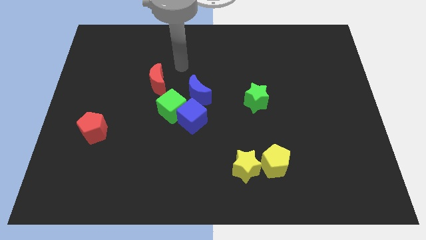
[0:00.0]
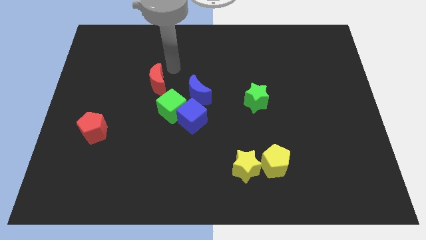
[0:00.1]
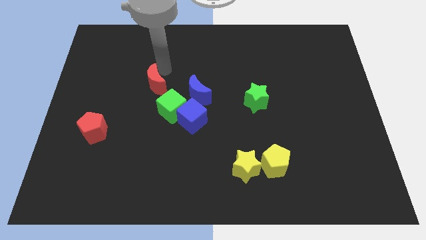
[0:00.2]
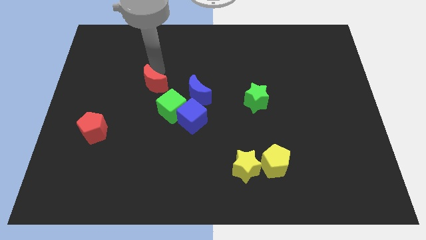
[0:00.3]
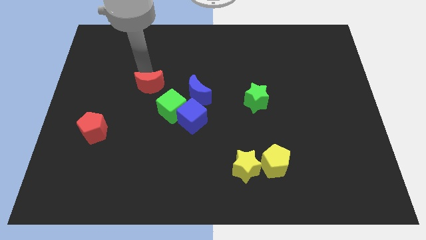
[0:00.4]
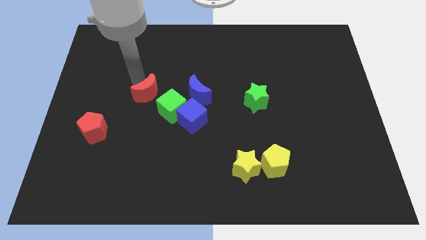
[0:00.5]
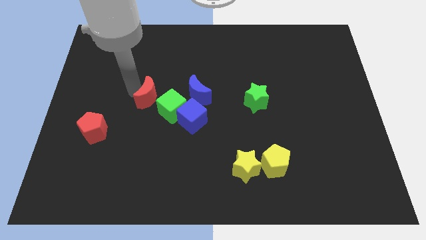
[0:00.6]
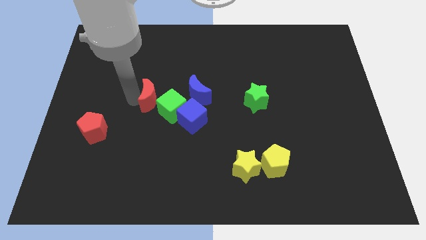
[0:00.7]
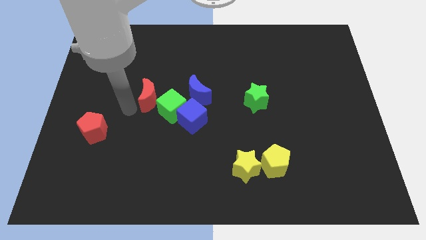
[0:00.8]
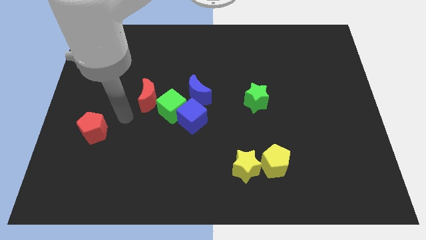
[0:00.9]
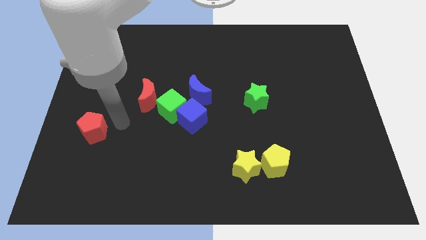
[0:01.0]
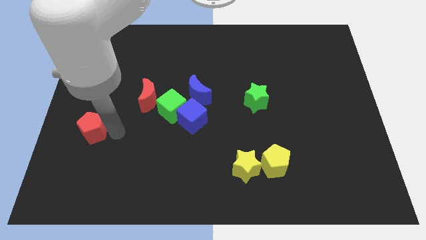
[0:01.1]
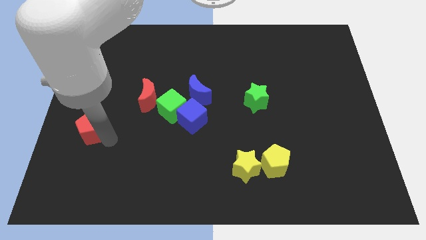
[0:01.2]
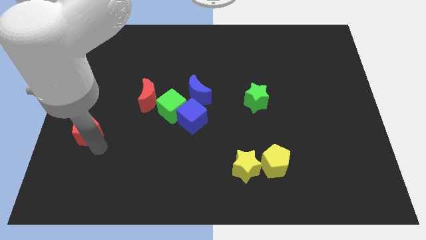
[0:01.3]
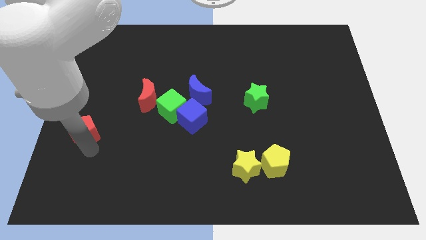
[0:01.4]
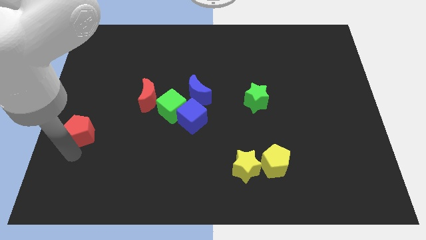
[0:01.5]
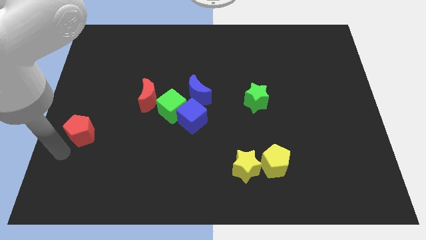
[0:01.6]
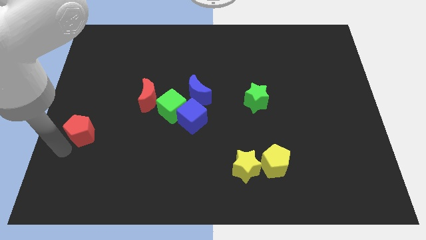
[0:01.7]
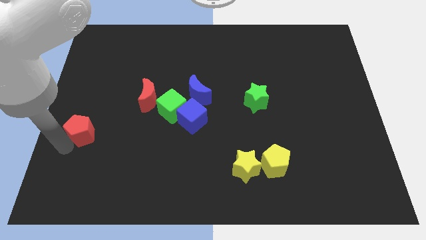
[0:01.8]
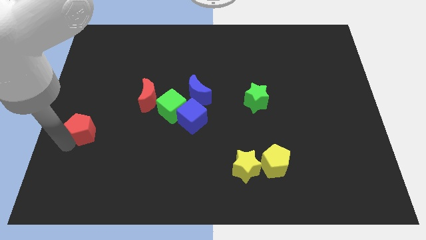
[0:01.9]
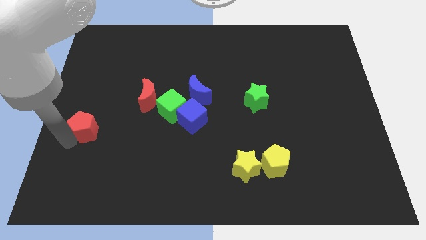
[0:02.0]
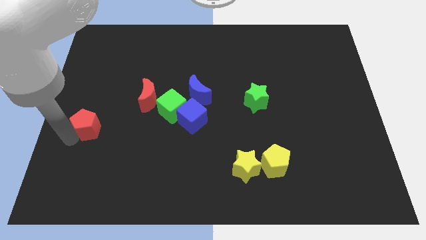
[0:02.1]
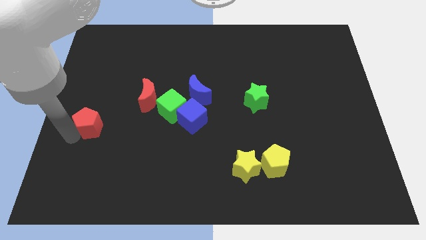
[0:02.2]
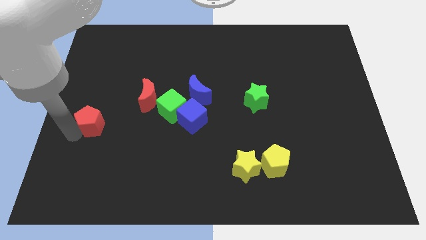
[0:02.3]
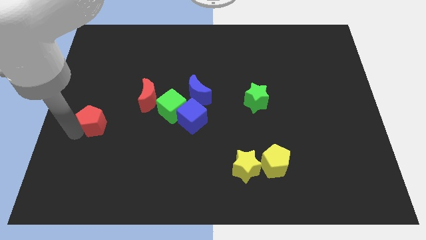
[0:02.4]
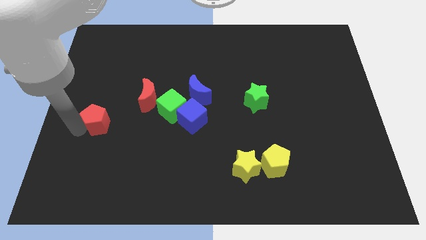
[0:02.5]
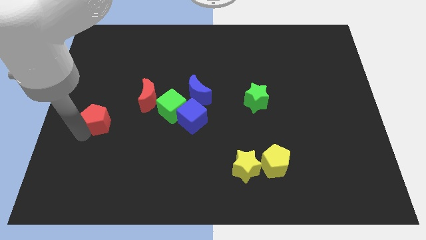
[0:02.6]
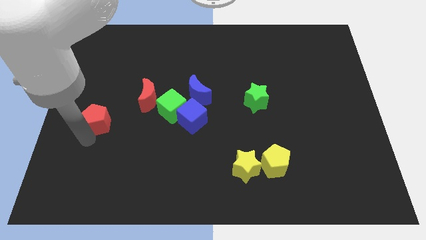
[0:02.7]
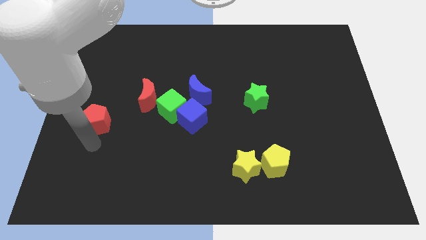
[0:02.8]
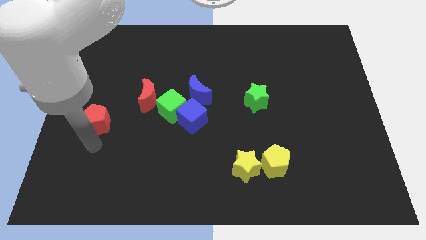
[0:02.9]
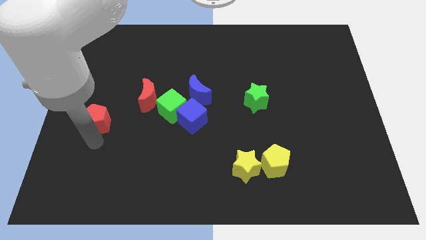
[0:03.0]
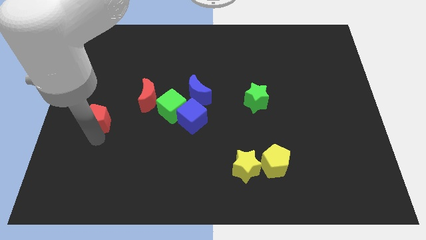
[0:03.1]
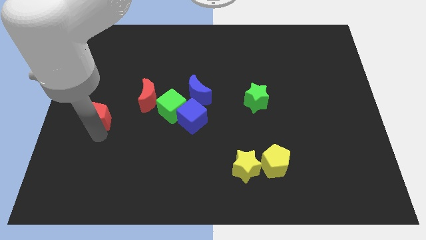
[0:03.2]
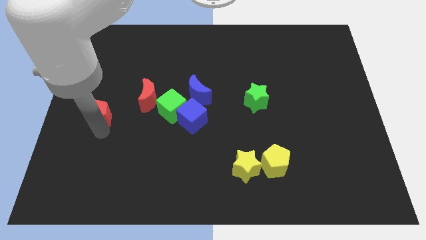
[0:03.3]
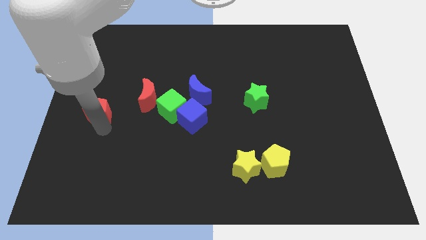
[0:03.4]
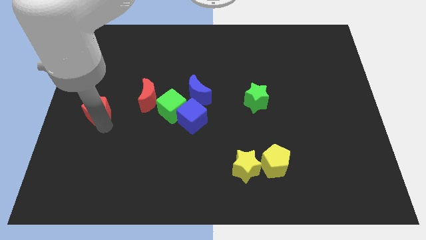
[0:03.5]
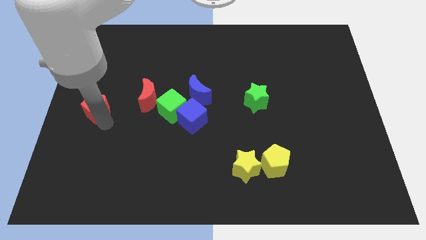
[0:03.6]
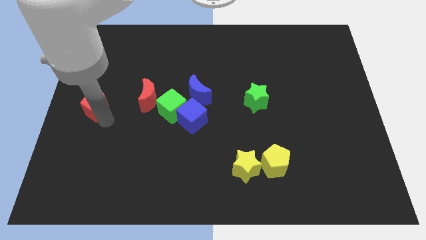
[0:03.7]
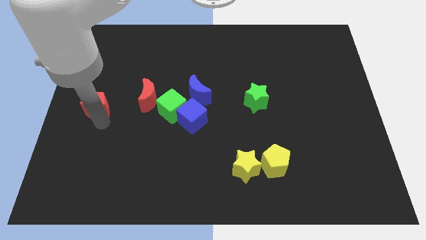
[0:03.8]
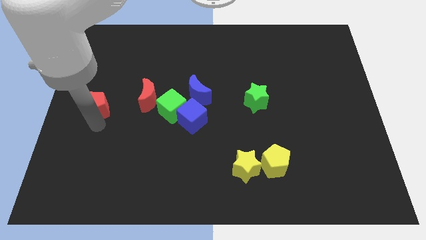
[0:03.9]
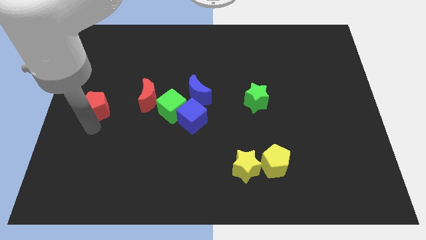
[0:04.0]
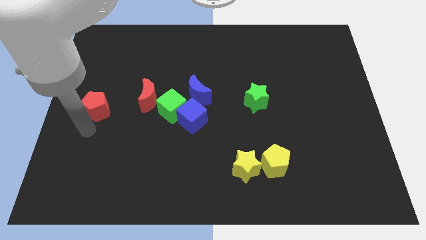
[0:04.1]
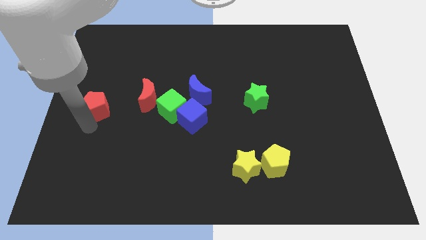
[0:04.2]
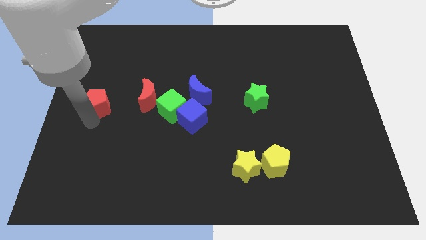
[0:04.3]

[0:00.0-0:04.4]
slide the red pentagon upwards somewhat

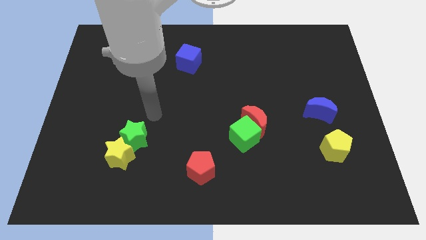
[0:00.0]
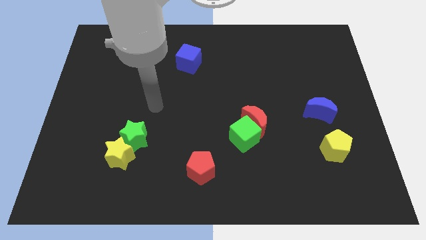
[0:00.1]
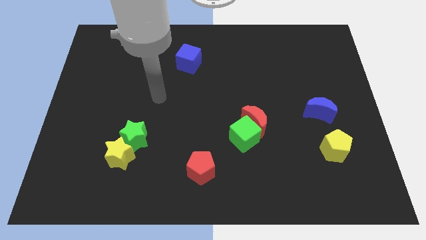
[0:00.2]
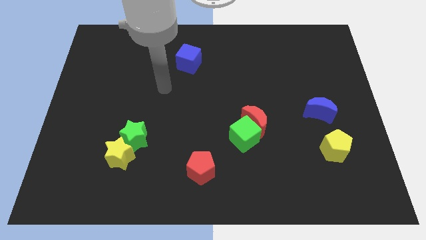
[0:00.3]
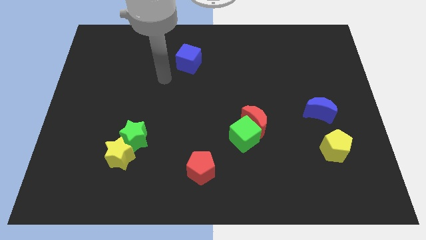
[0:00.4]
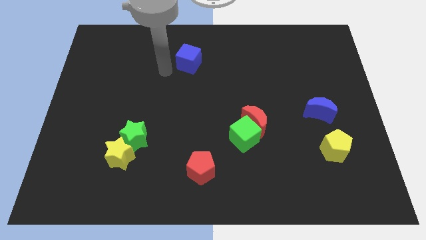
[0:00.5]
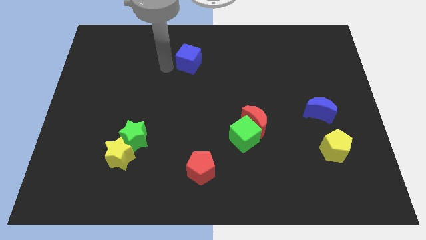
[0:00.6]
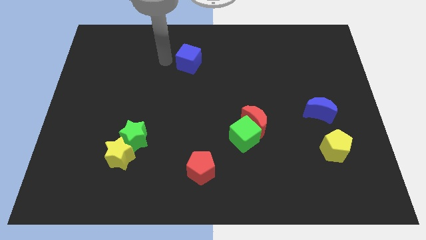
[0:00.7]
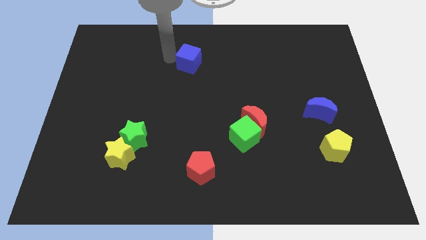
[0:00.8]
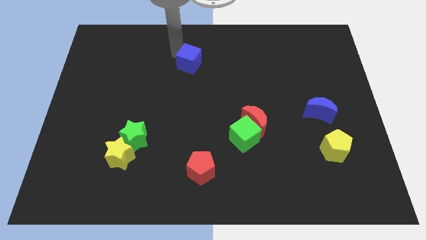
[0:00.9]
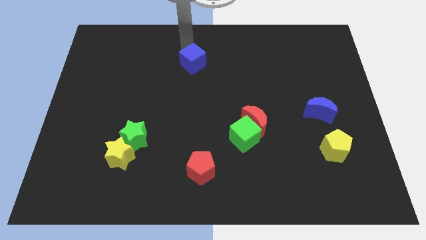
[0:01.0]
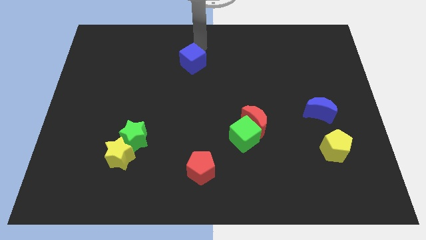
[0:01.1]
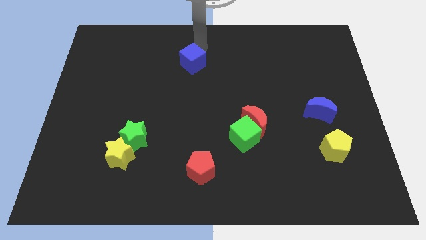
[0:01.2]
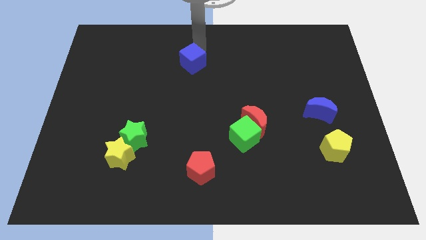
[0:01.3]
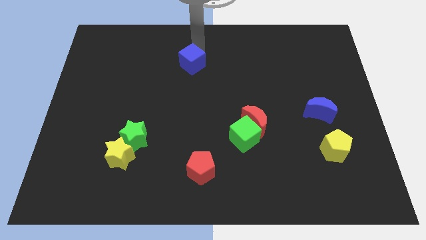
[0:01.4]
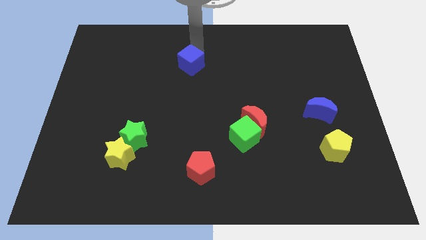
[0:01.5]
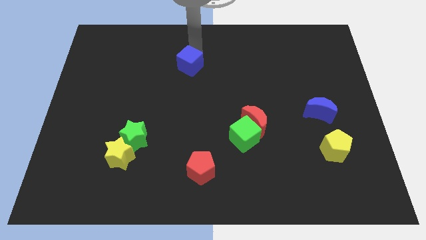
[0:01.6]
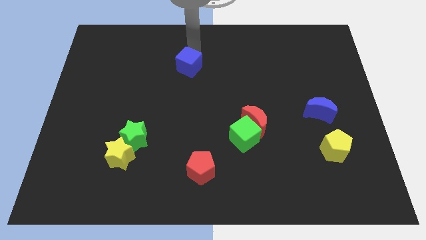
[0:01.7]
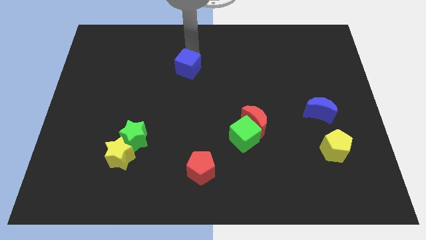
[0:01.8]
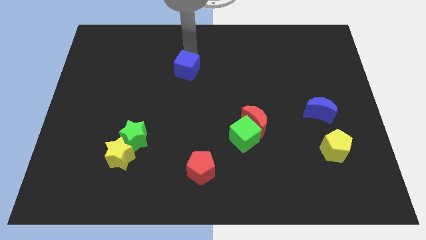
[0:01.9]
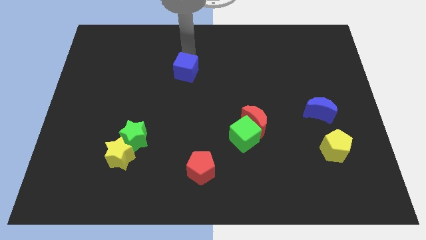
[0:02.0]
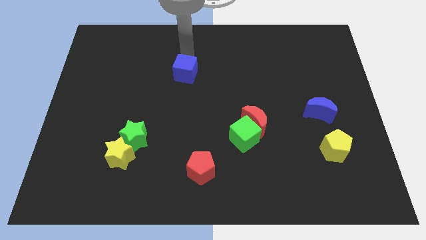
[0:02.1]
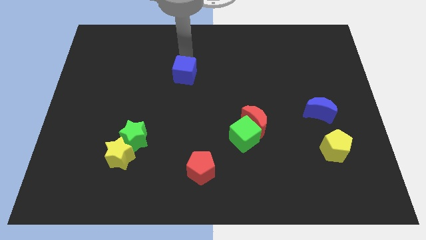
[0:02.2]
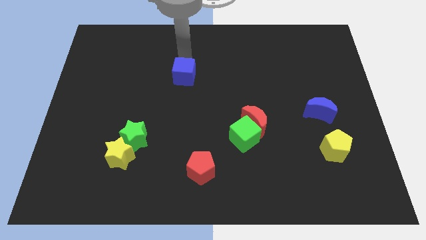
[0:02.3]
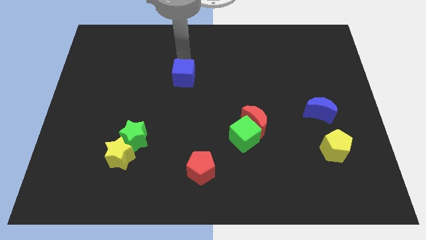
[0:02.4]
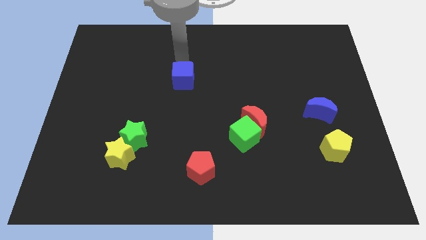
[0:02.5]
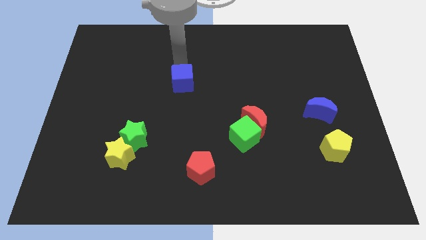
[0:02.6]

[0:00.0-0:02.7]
move the blue cube downwards a little bit

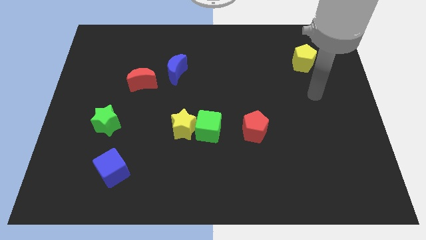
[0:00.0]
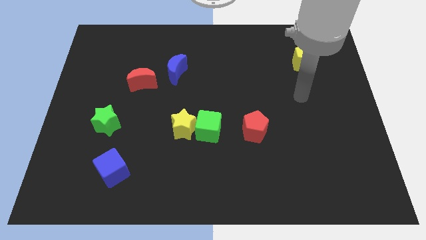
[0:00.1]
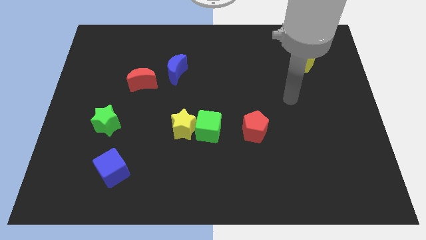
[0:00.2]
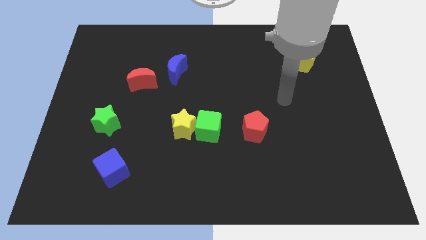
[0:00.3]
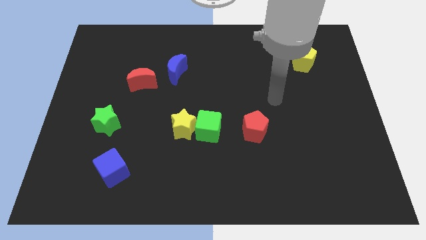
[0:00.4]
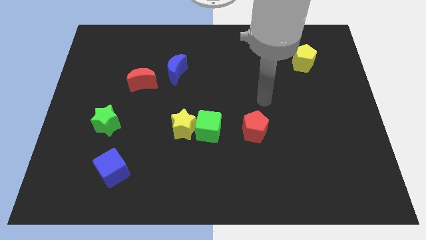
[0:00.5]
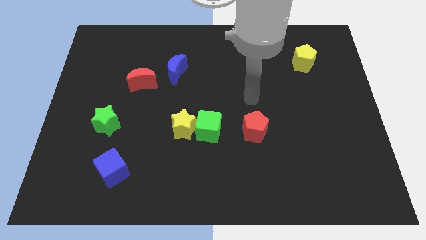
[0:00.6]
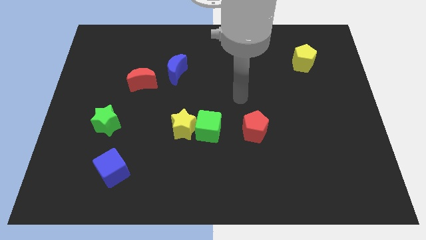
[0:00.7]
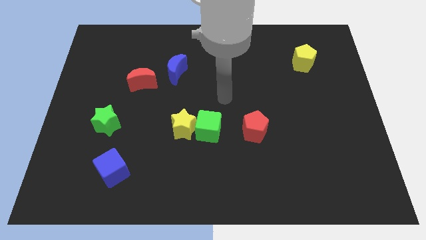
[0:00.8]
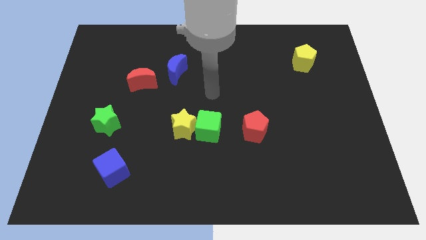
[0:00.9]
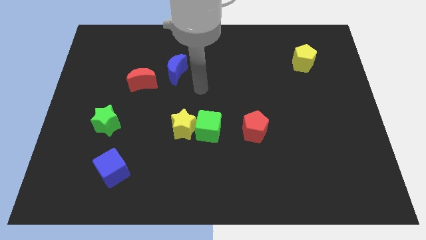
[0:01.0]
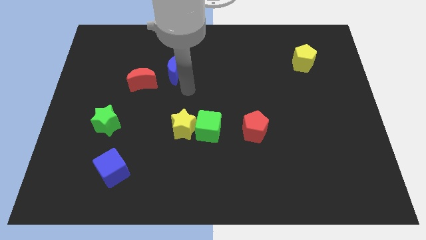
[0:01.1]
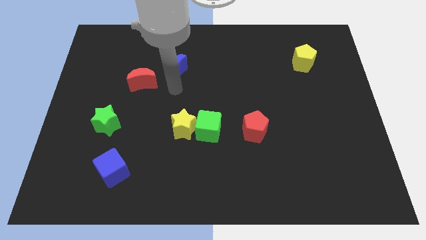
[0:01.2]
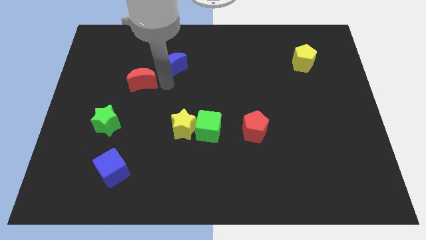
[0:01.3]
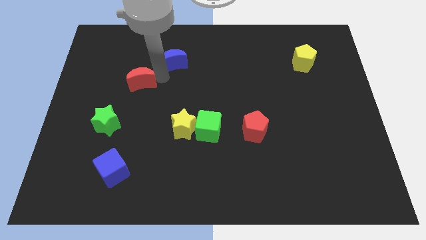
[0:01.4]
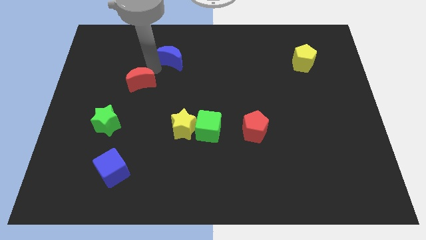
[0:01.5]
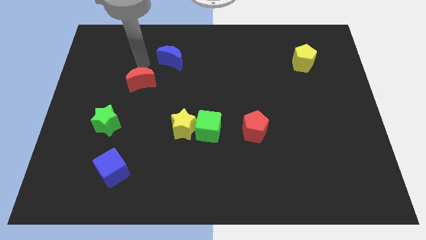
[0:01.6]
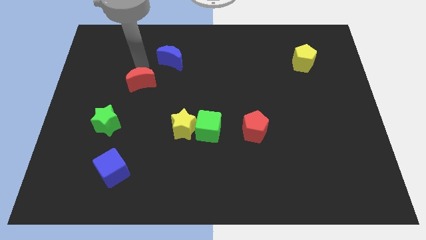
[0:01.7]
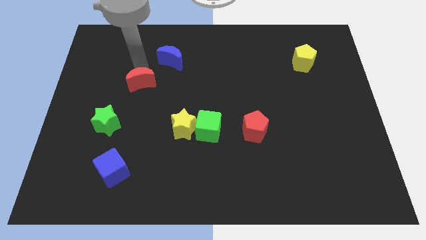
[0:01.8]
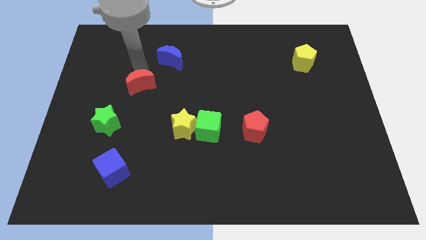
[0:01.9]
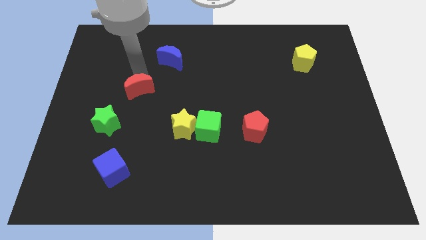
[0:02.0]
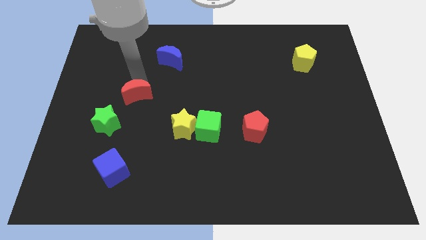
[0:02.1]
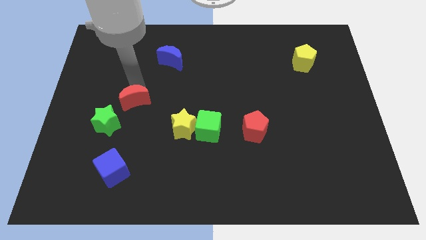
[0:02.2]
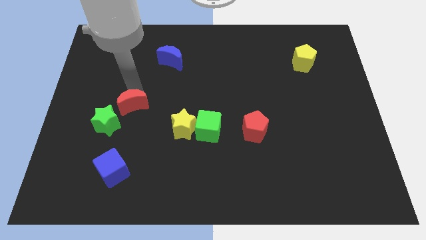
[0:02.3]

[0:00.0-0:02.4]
slide the red moon a little downwards
